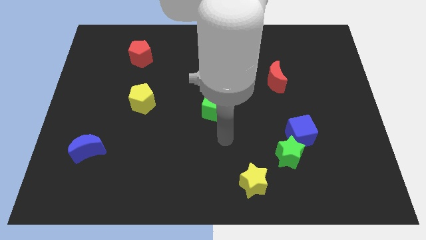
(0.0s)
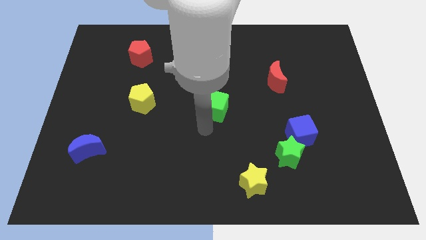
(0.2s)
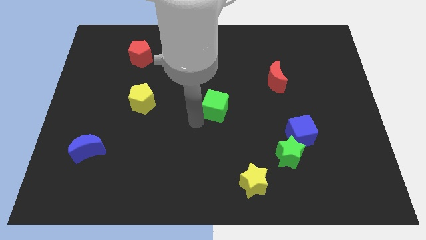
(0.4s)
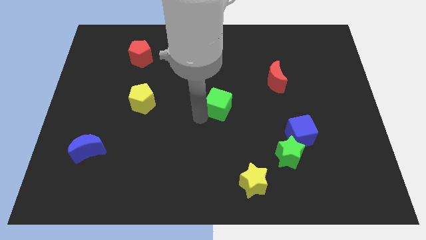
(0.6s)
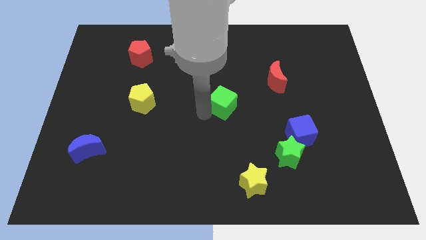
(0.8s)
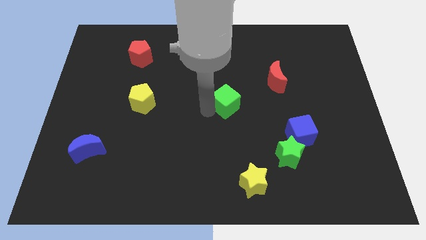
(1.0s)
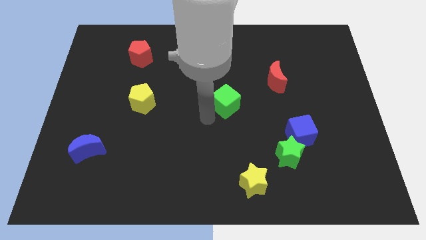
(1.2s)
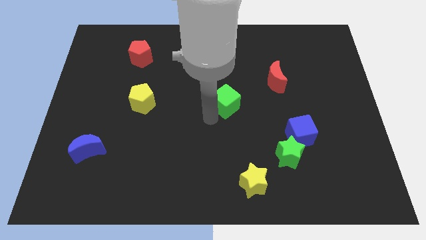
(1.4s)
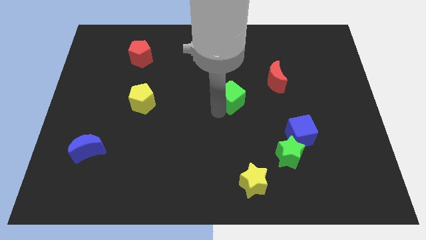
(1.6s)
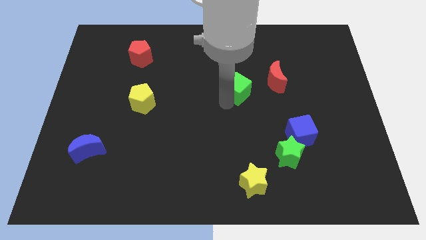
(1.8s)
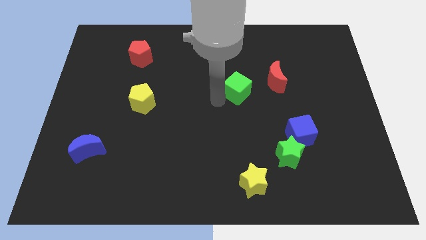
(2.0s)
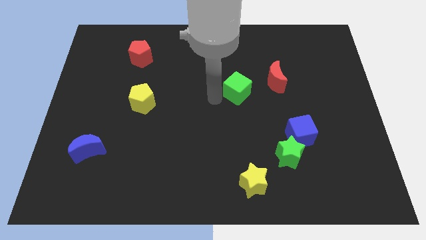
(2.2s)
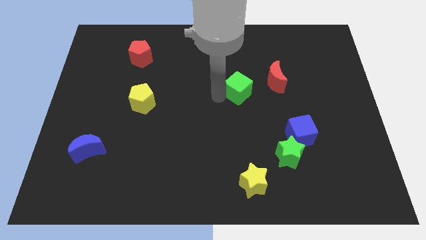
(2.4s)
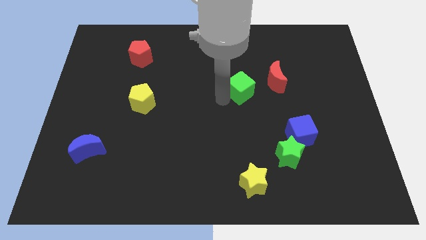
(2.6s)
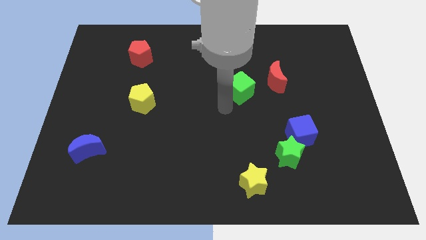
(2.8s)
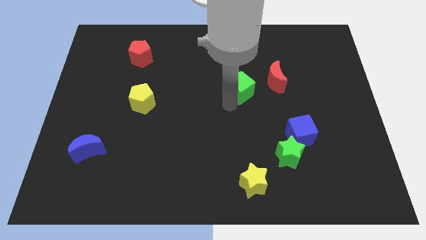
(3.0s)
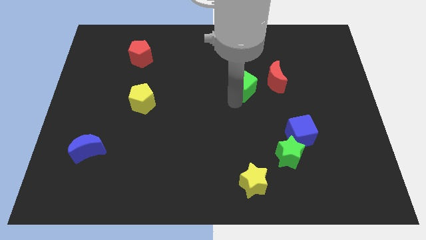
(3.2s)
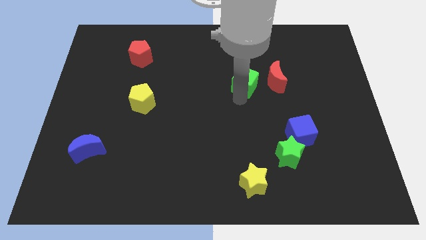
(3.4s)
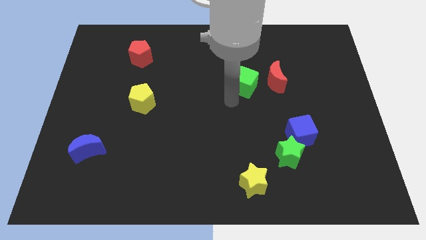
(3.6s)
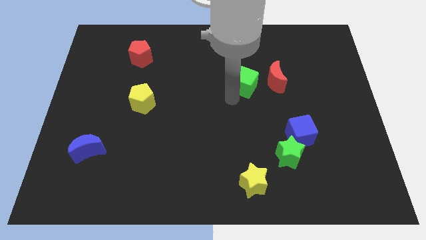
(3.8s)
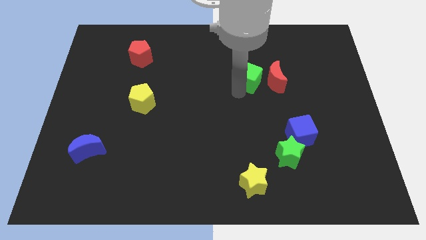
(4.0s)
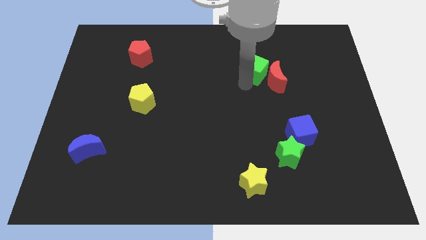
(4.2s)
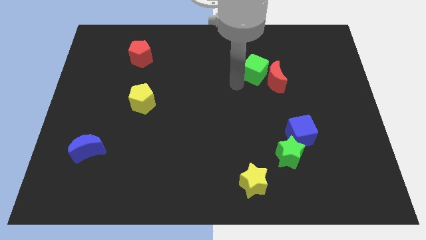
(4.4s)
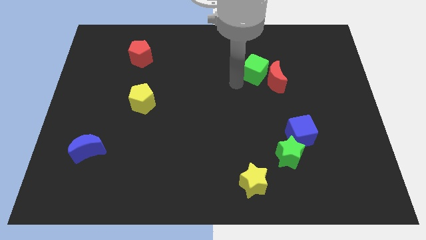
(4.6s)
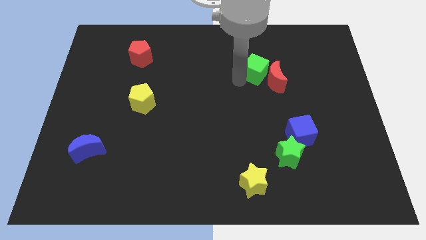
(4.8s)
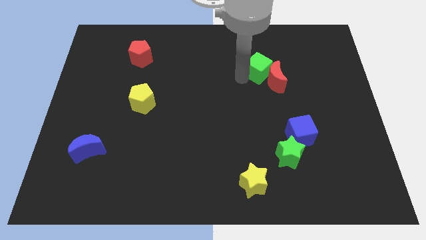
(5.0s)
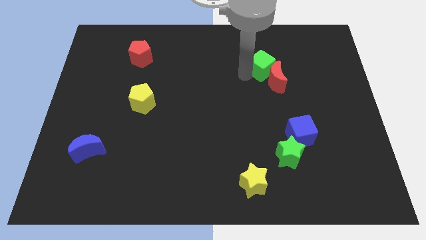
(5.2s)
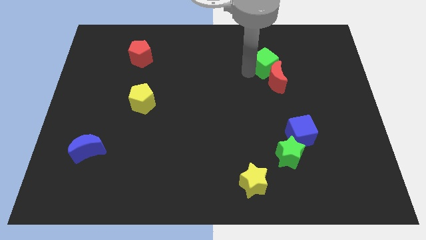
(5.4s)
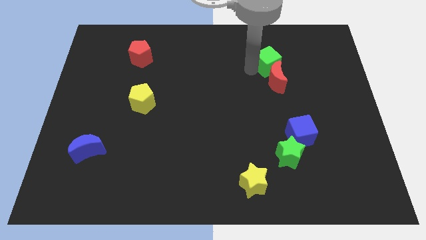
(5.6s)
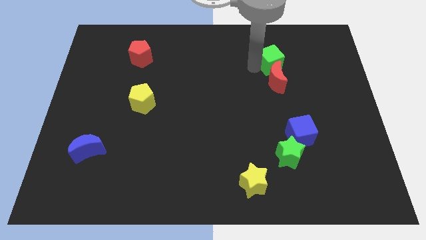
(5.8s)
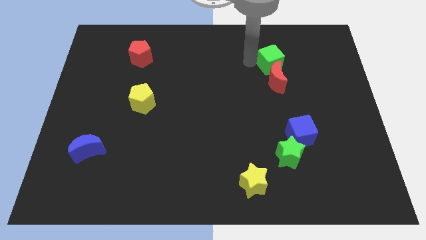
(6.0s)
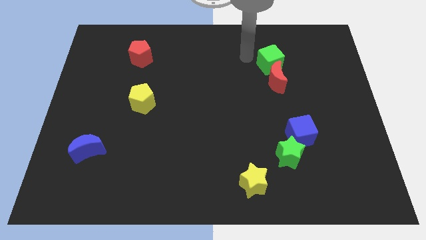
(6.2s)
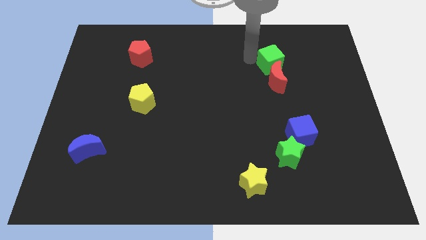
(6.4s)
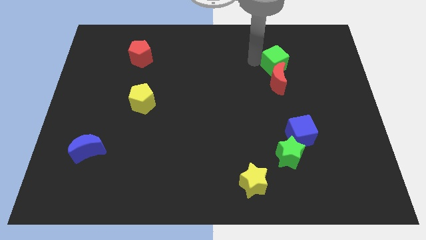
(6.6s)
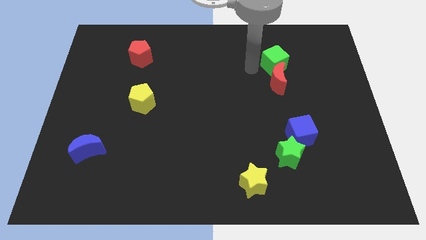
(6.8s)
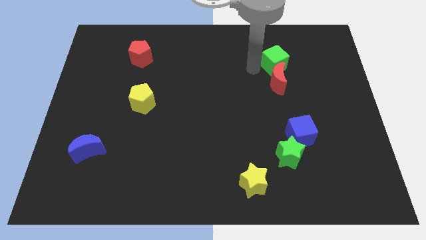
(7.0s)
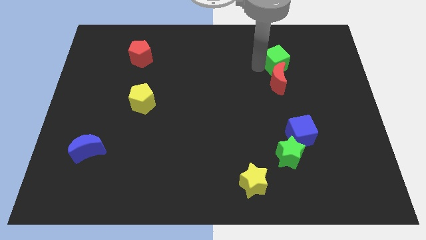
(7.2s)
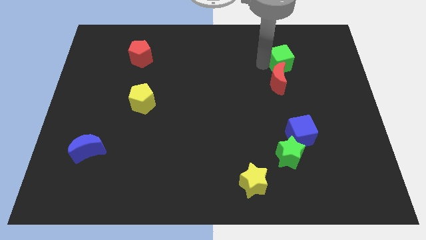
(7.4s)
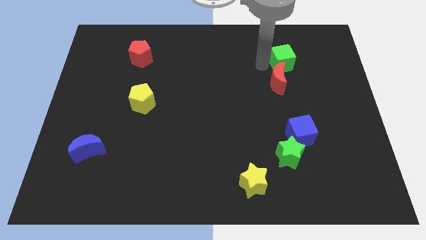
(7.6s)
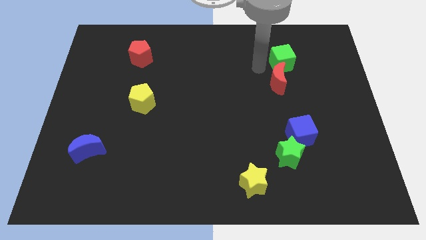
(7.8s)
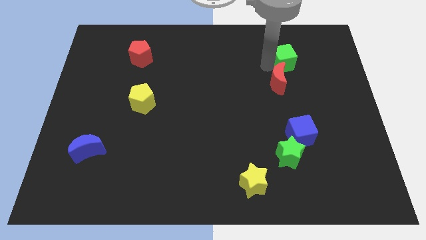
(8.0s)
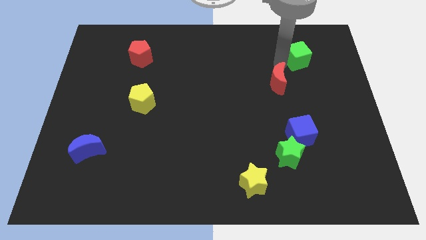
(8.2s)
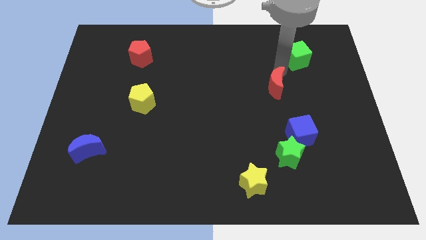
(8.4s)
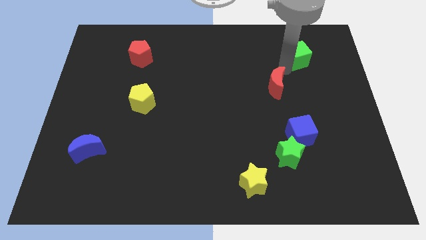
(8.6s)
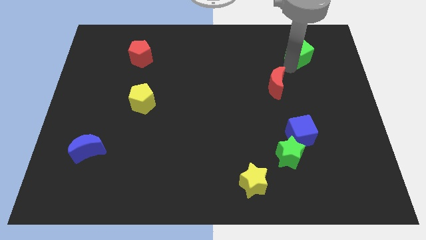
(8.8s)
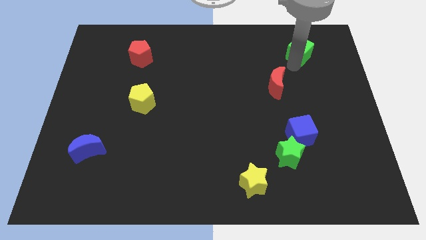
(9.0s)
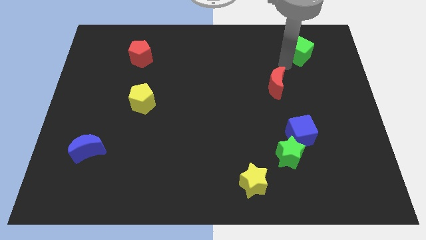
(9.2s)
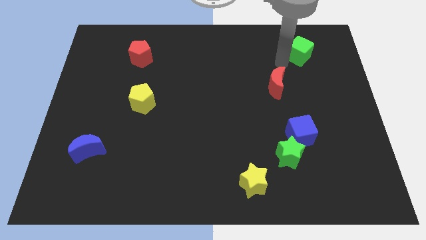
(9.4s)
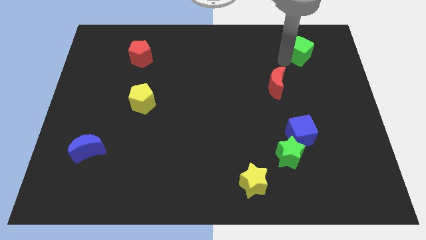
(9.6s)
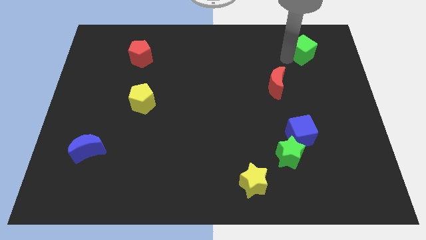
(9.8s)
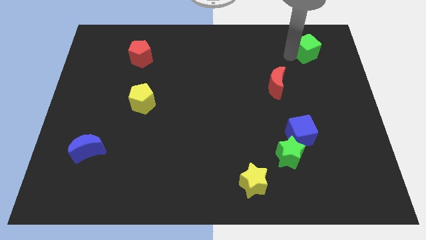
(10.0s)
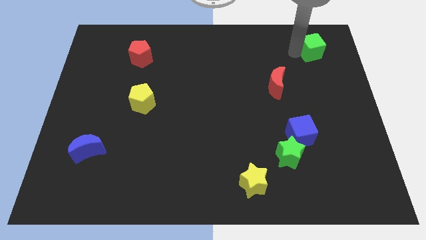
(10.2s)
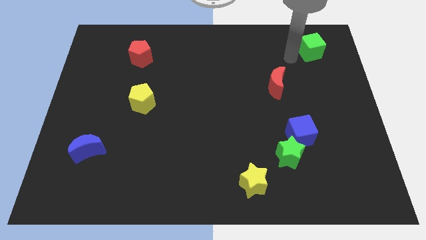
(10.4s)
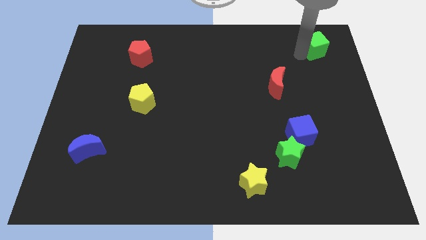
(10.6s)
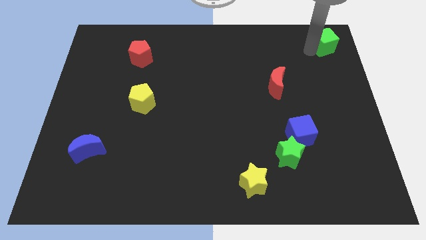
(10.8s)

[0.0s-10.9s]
slide the green cube to the top right of the board

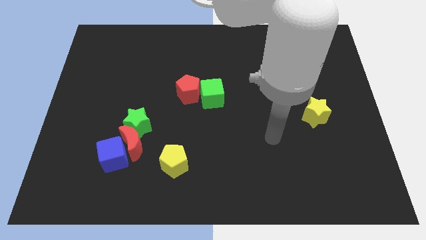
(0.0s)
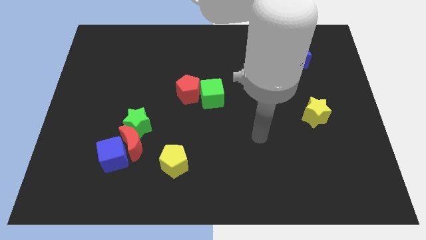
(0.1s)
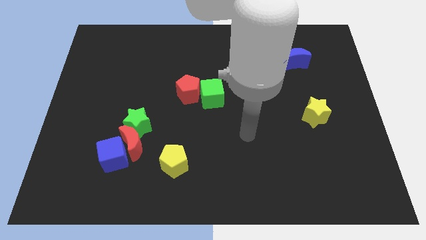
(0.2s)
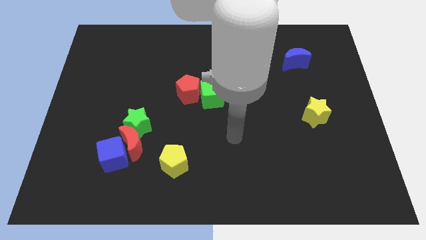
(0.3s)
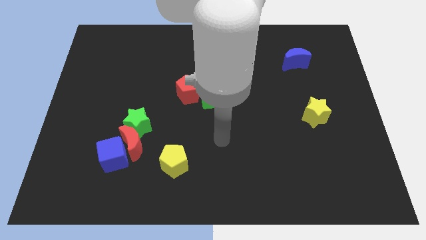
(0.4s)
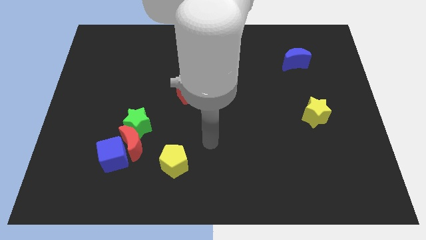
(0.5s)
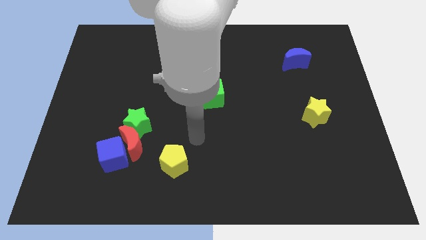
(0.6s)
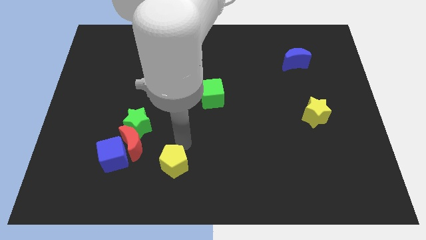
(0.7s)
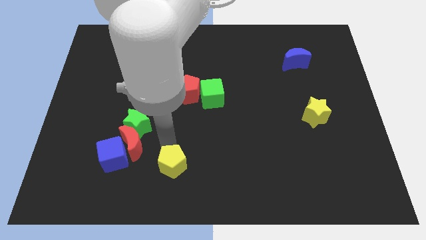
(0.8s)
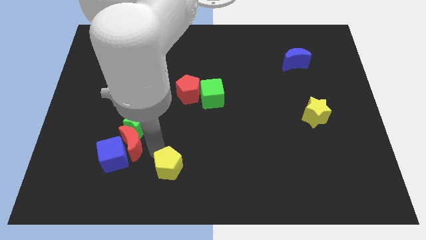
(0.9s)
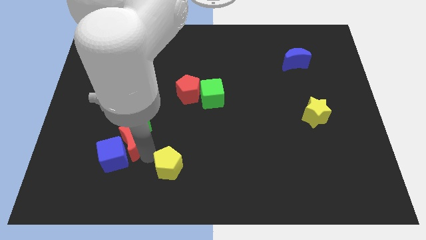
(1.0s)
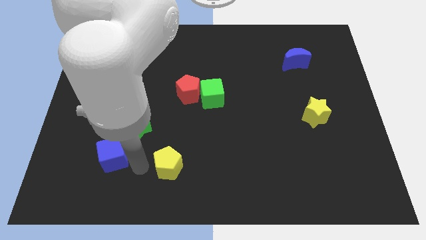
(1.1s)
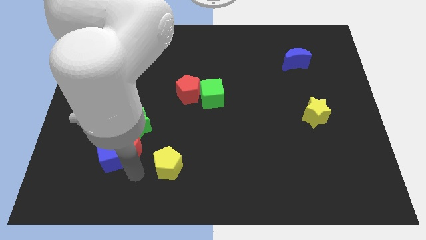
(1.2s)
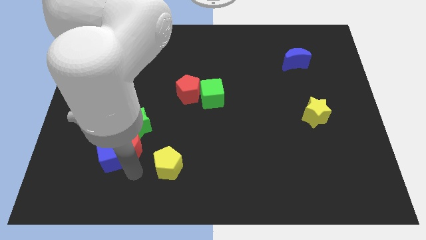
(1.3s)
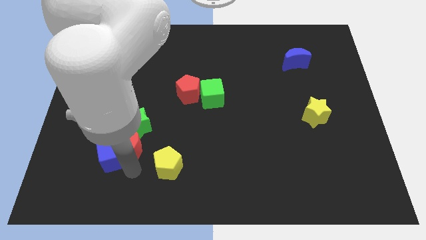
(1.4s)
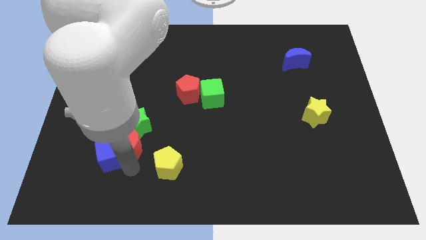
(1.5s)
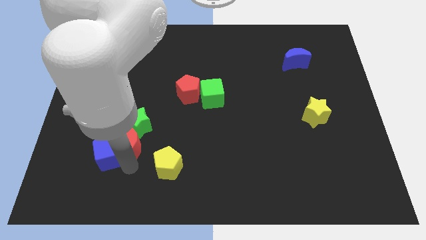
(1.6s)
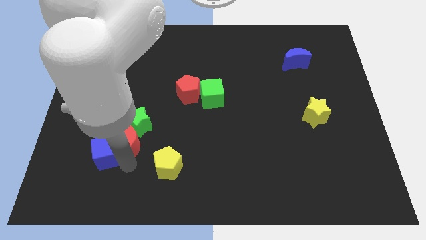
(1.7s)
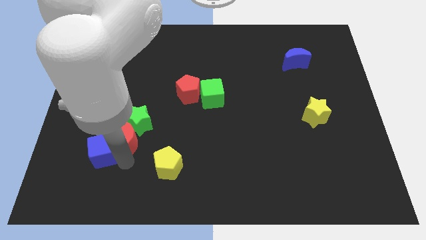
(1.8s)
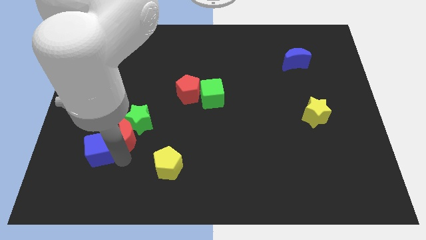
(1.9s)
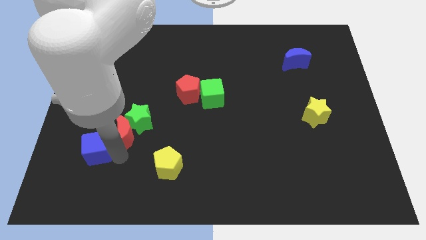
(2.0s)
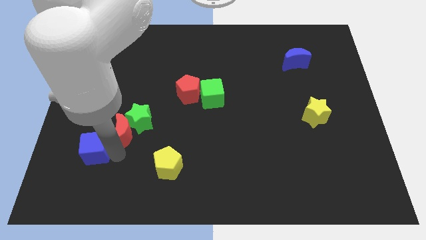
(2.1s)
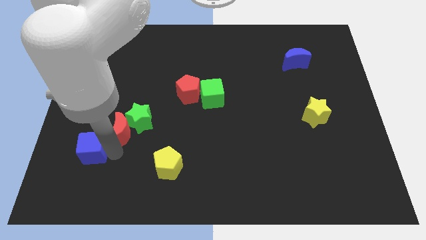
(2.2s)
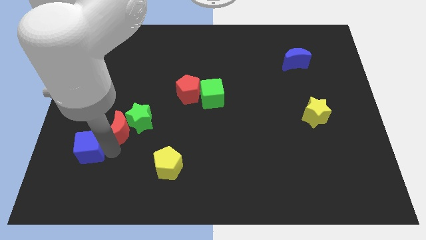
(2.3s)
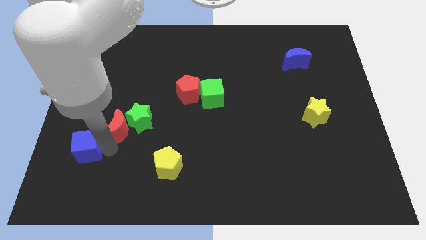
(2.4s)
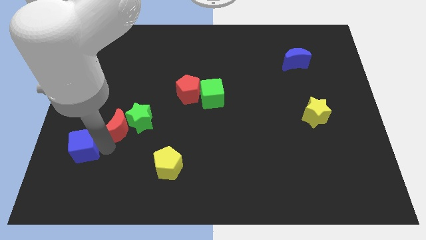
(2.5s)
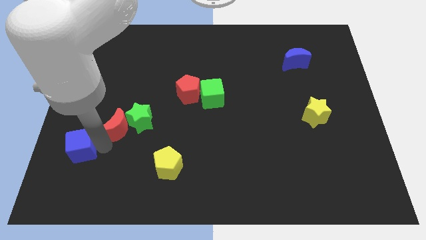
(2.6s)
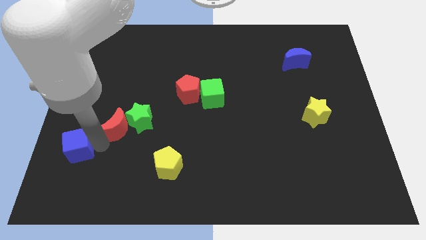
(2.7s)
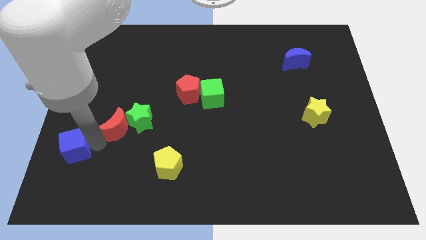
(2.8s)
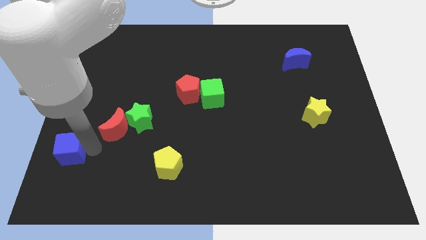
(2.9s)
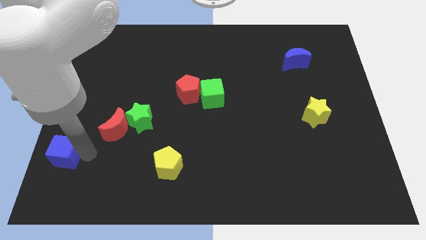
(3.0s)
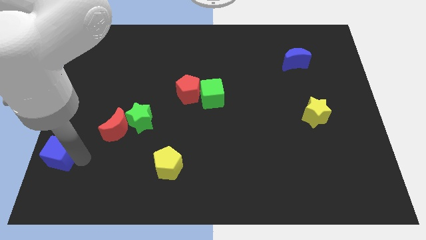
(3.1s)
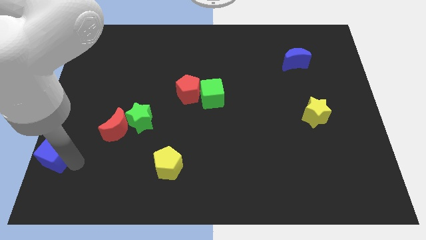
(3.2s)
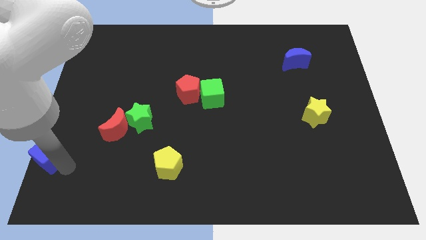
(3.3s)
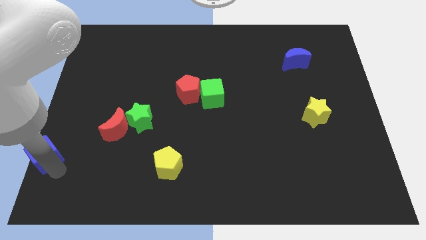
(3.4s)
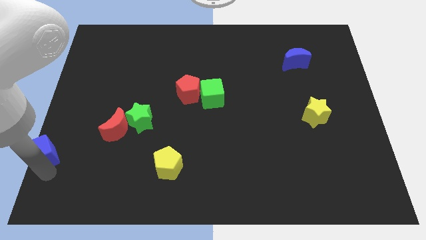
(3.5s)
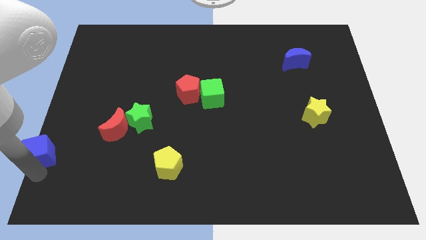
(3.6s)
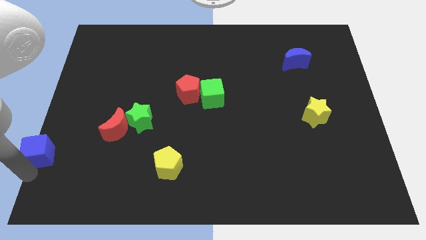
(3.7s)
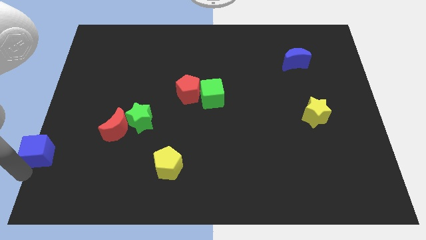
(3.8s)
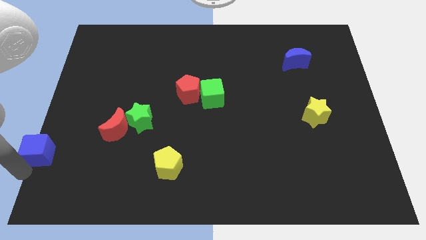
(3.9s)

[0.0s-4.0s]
put the blue cube to the left side
